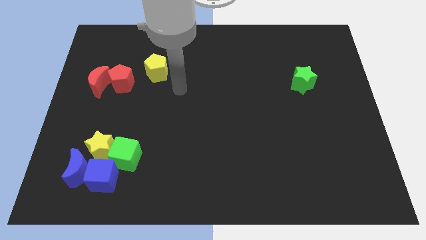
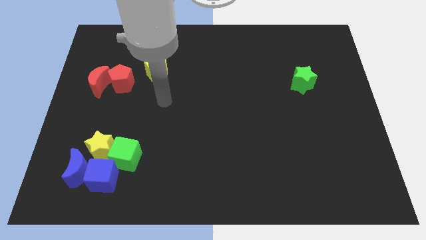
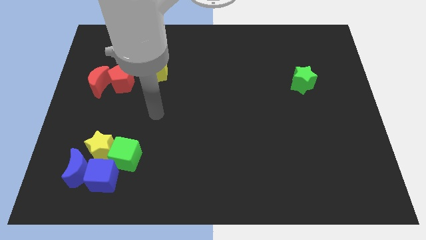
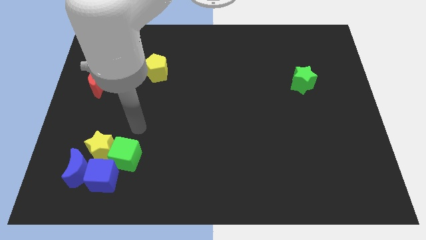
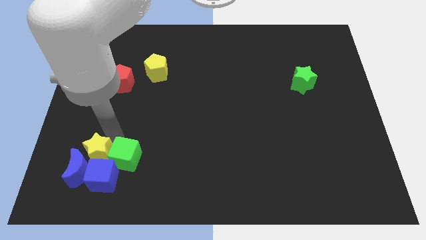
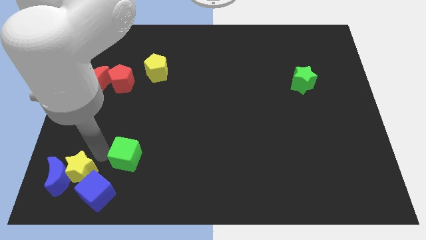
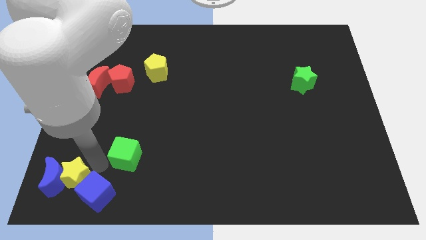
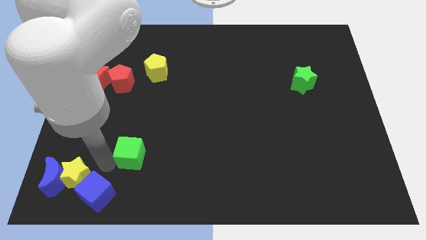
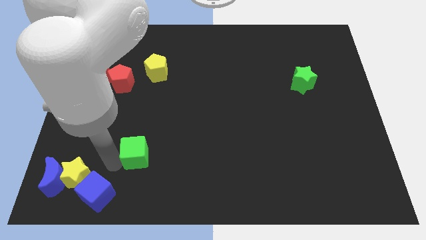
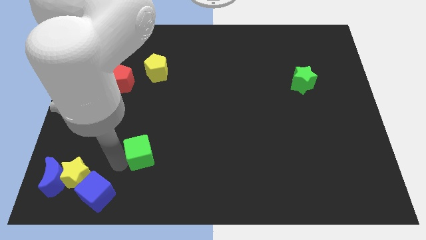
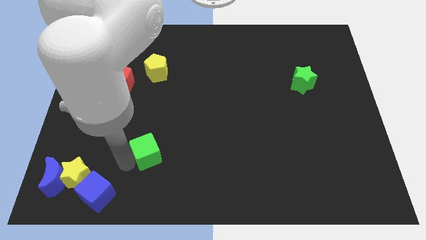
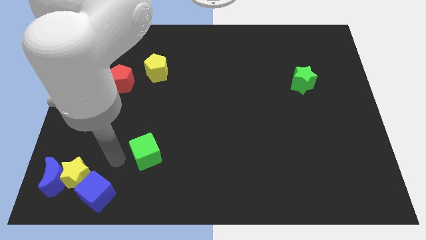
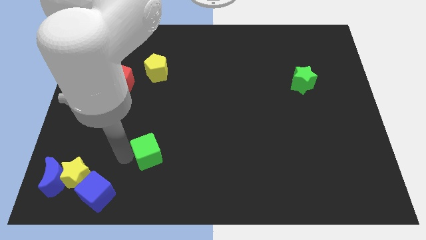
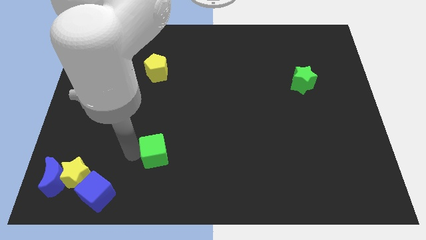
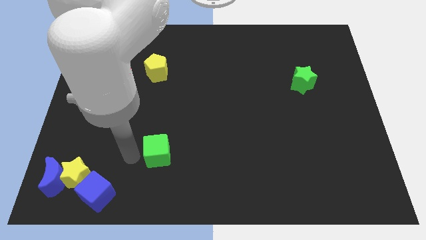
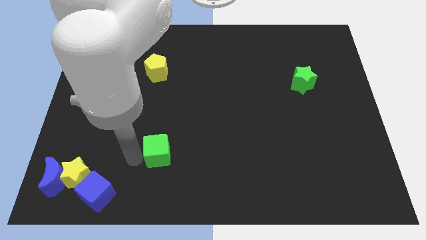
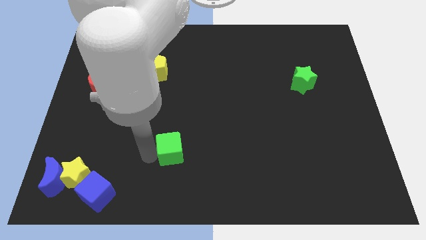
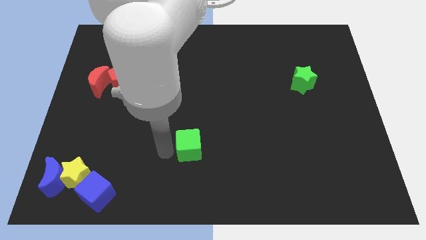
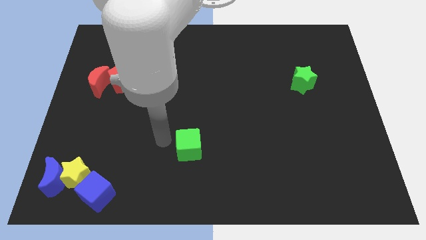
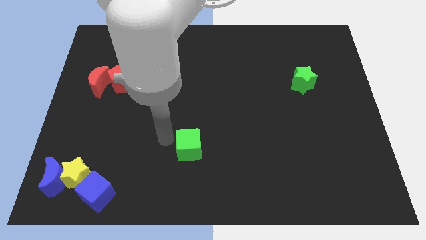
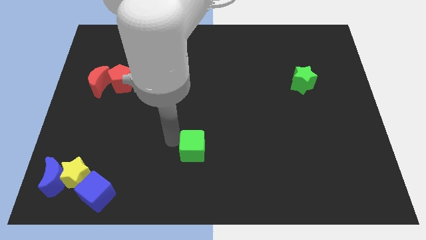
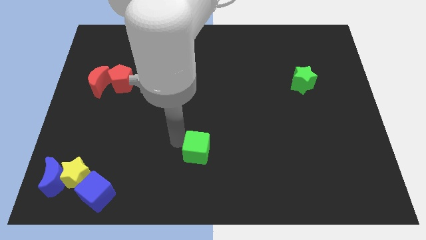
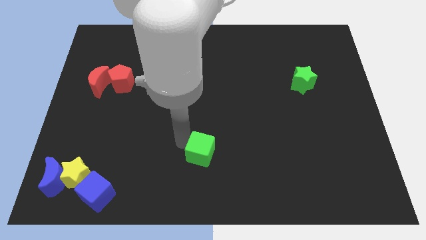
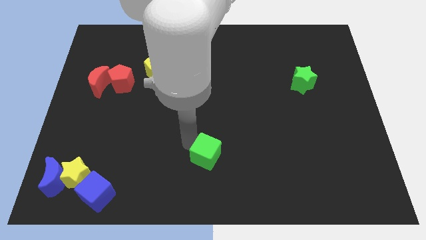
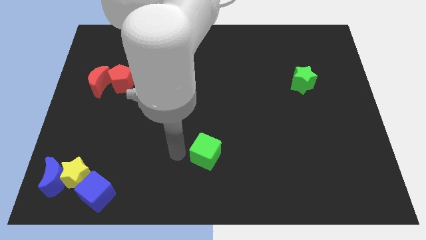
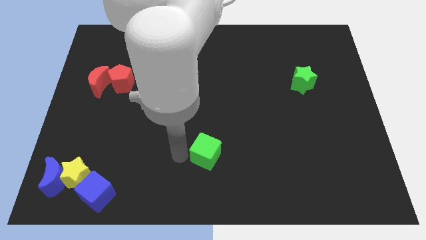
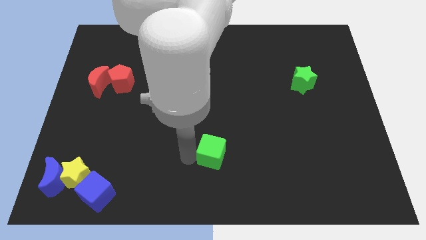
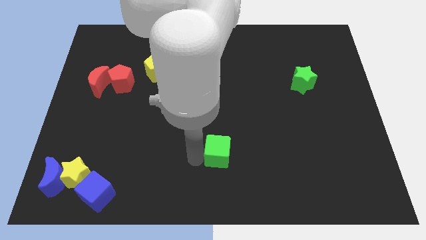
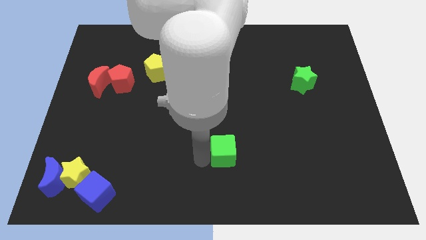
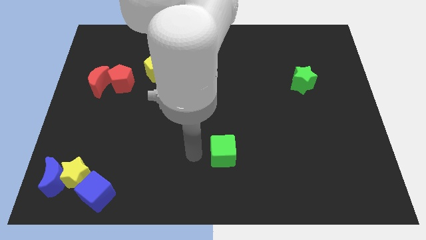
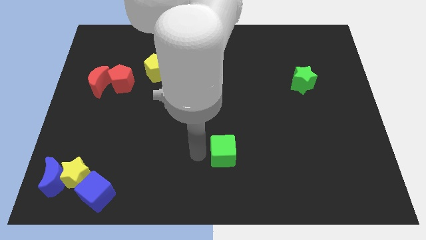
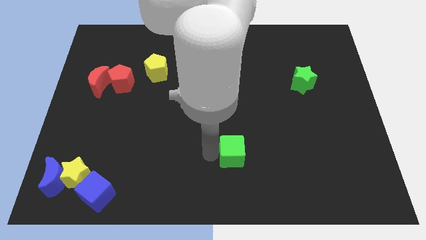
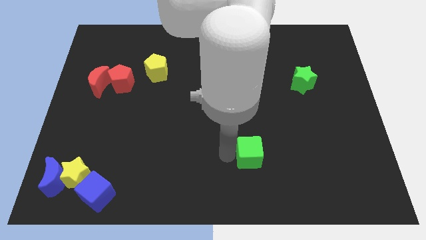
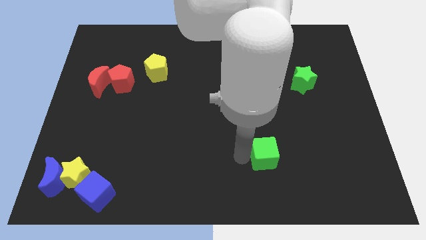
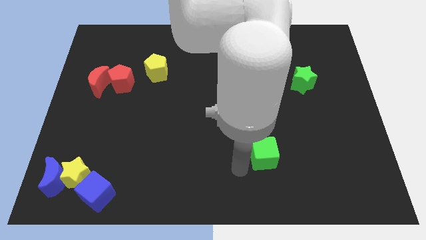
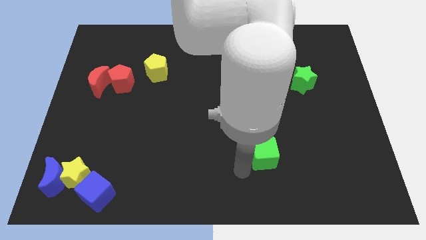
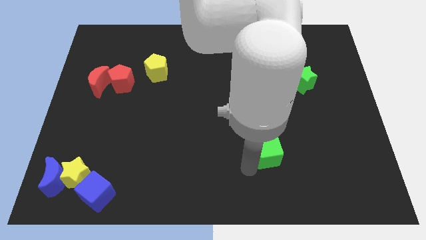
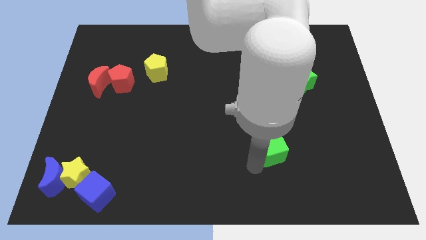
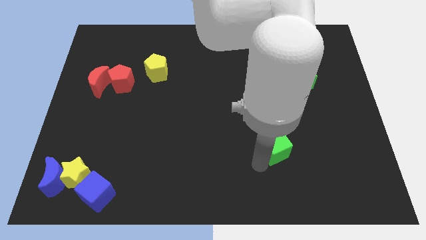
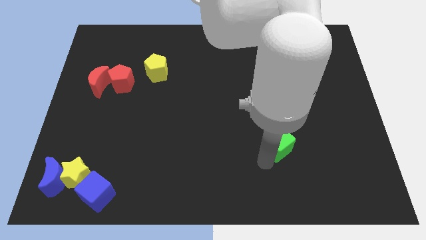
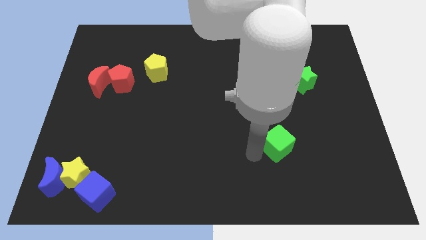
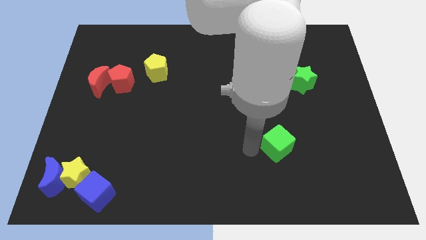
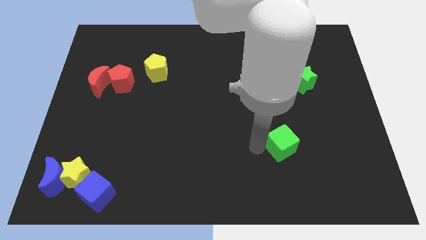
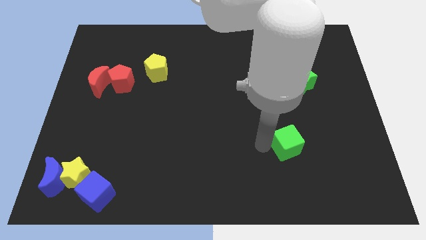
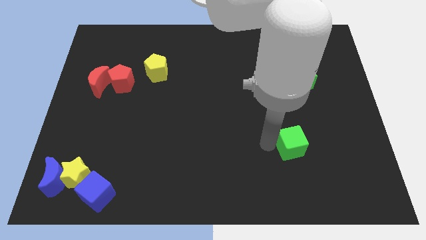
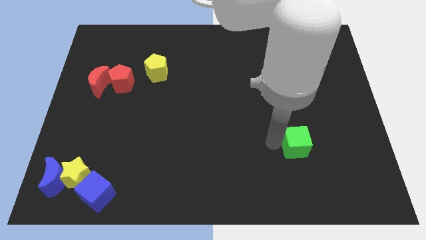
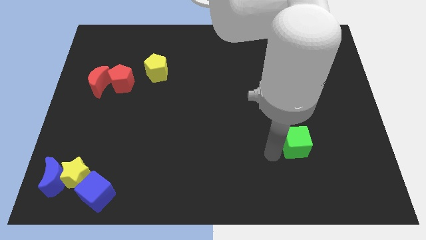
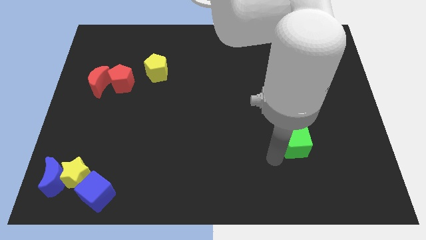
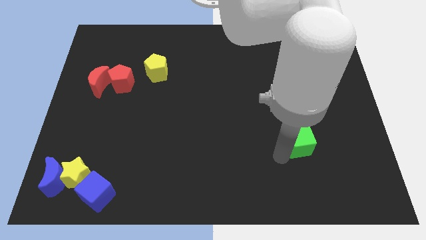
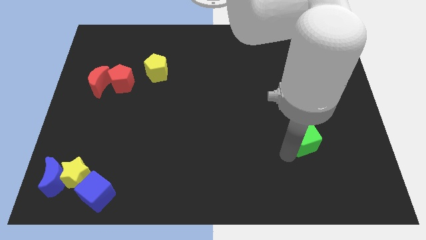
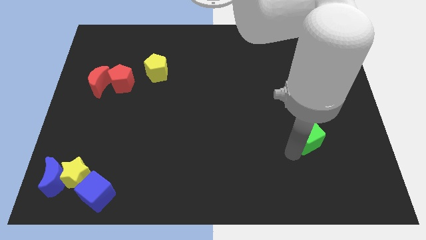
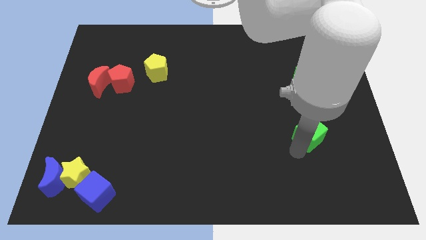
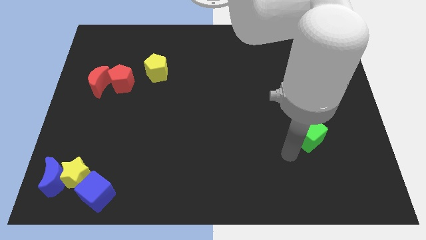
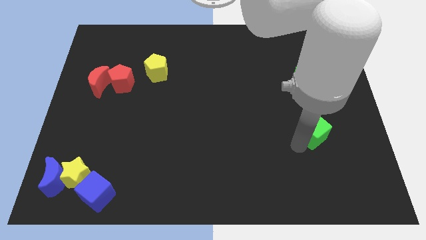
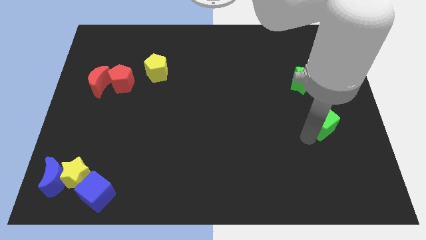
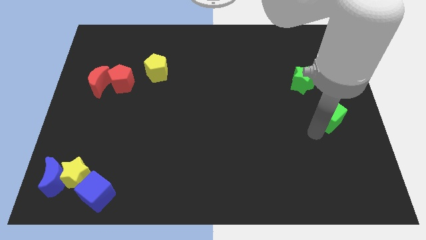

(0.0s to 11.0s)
put the green cube to the bottom right side of the green star

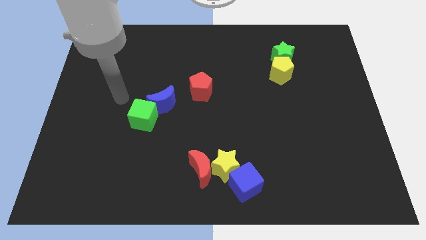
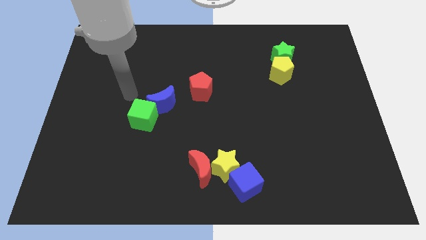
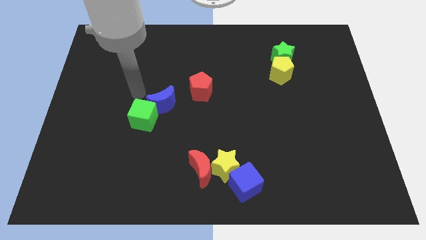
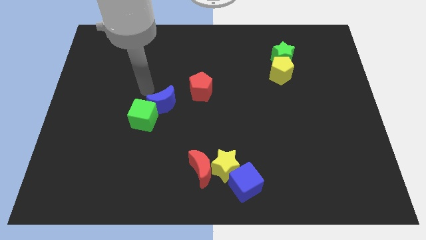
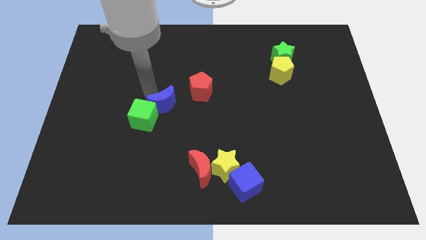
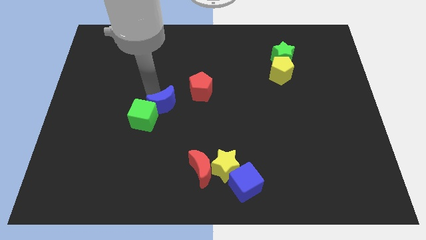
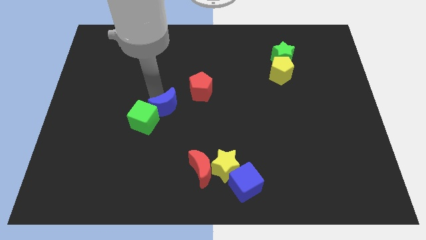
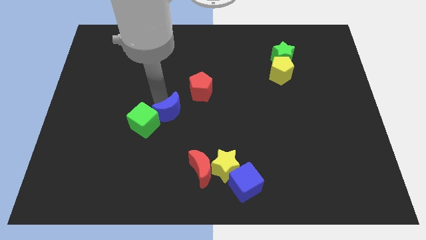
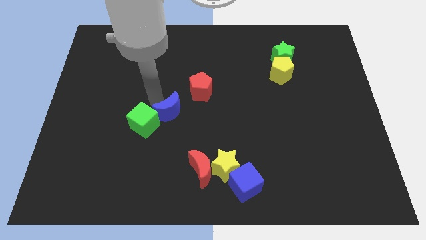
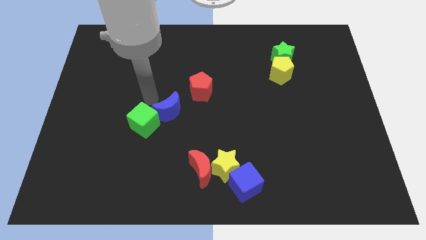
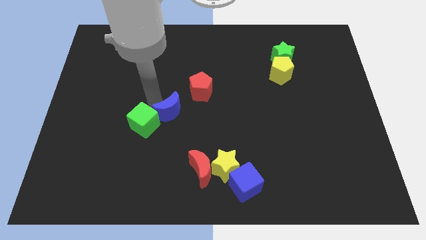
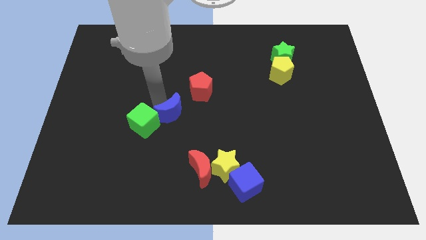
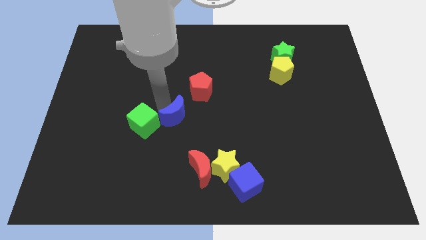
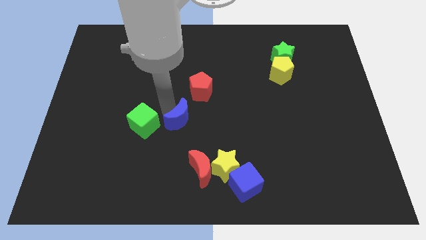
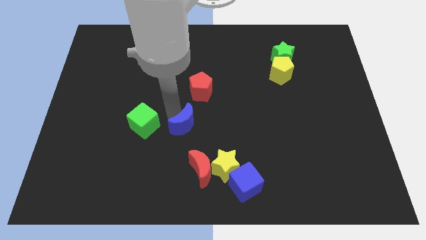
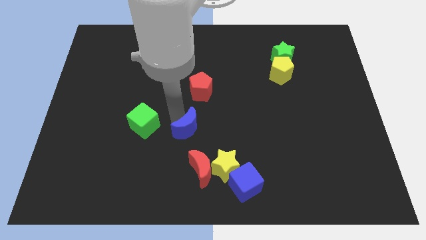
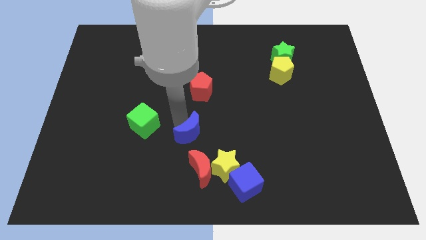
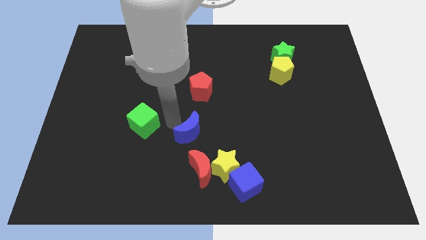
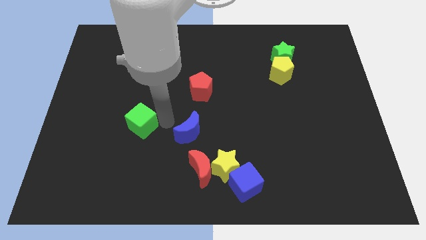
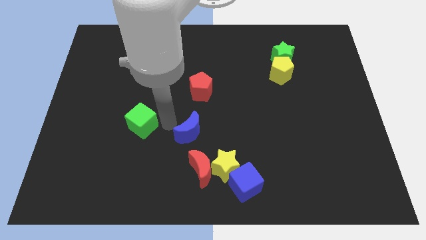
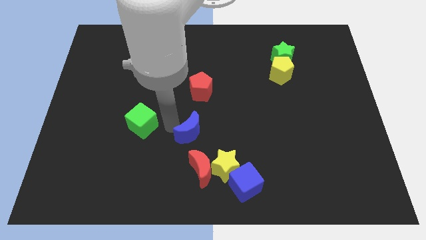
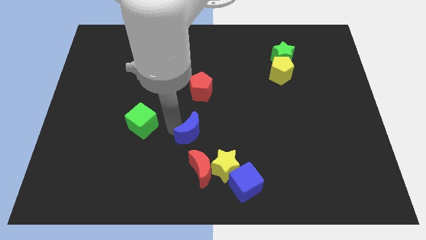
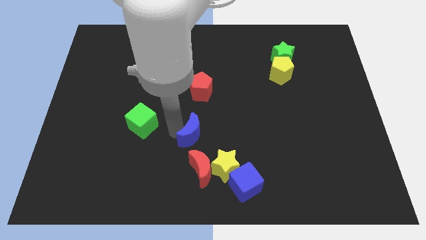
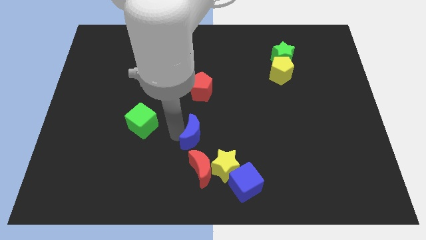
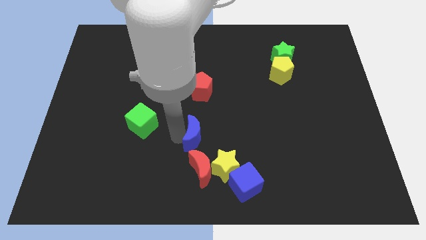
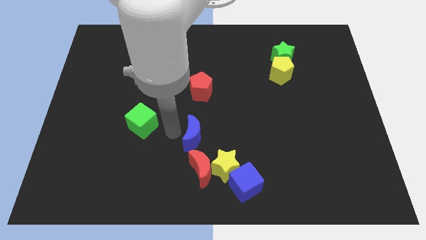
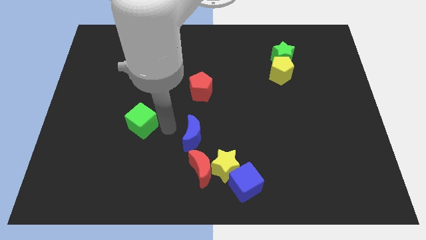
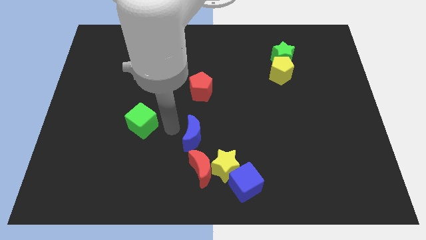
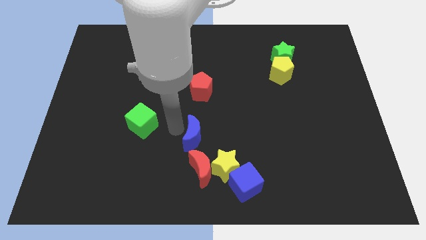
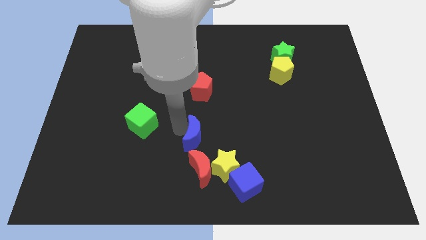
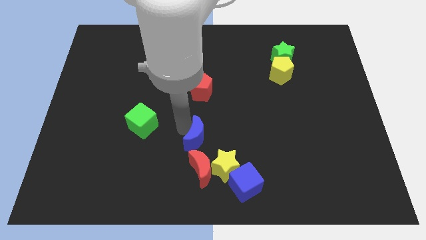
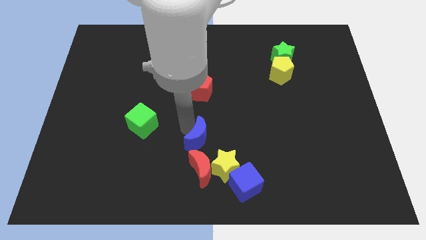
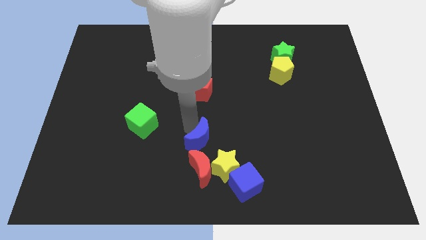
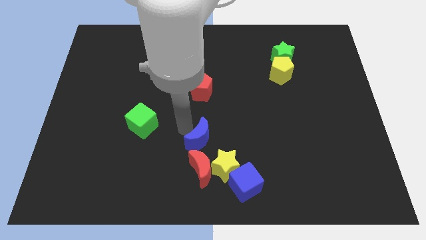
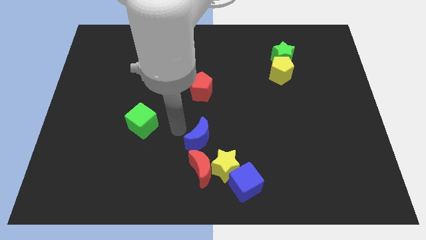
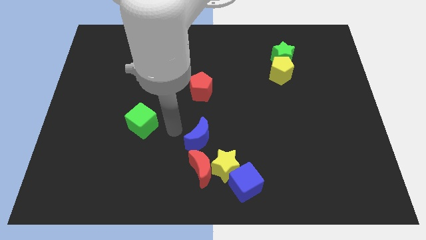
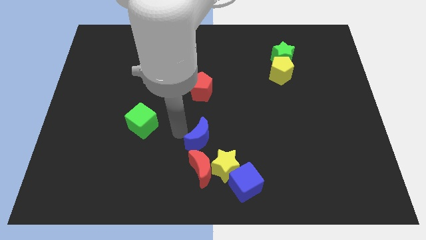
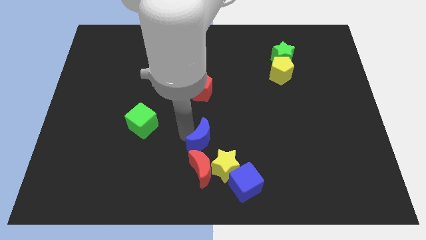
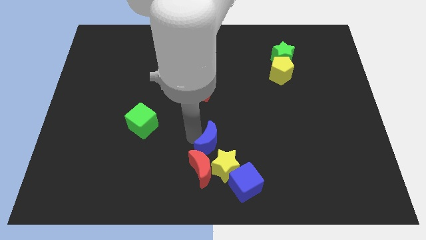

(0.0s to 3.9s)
move the blue moon diagonally up and to the right of the red moon
